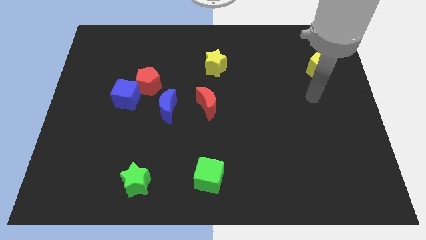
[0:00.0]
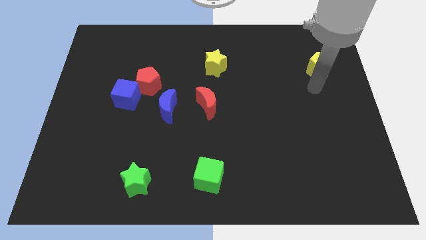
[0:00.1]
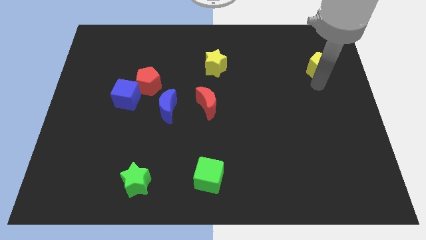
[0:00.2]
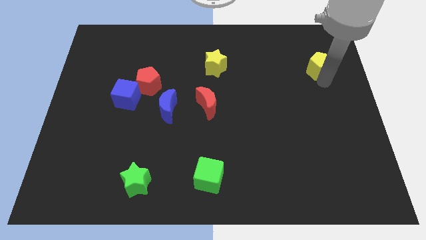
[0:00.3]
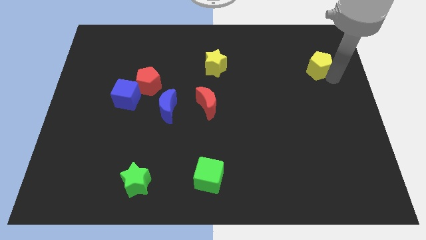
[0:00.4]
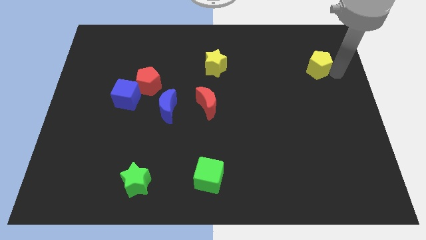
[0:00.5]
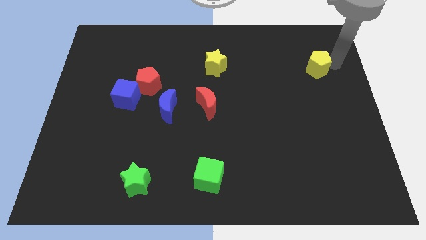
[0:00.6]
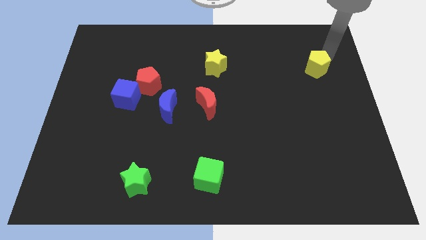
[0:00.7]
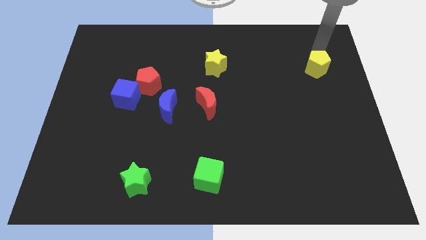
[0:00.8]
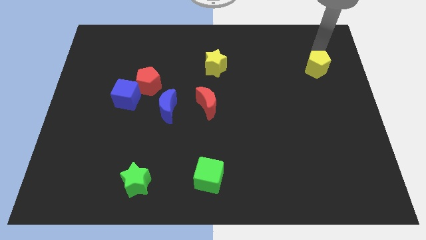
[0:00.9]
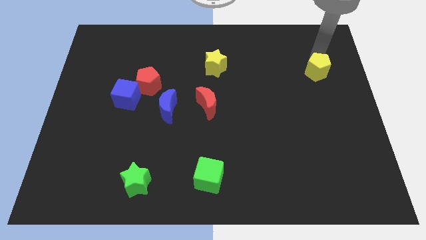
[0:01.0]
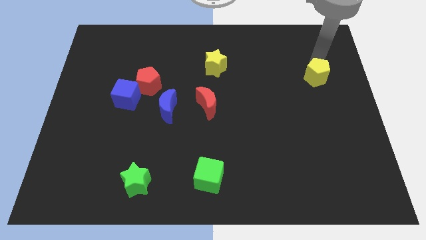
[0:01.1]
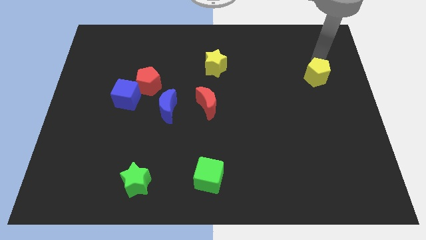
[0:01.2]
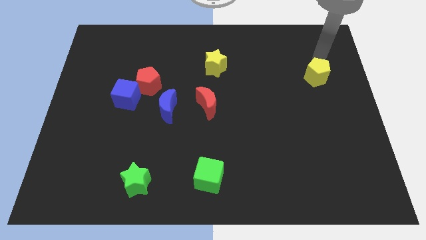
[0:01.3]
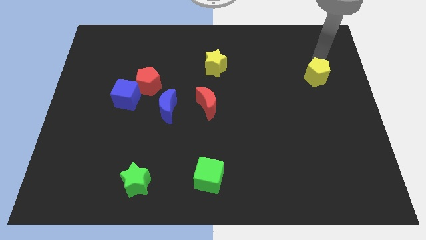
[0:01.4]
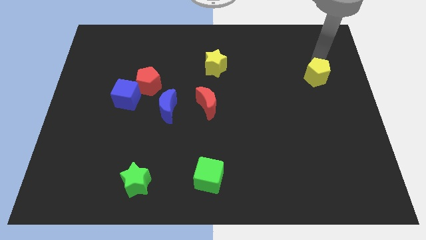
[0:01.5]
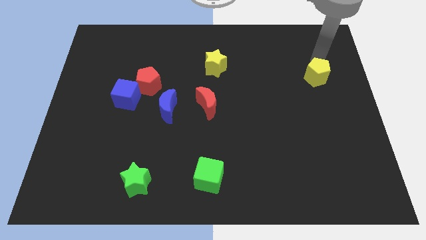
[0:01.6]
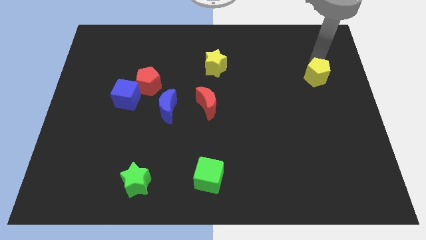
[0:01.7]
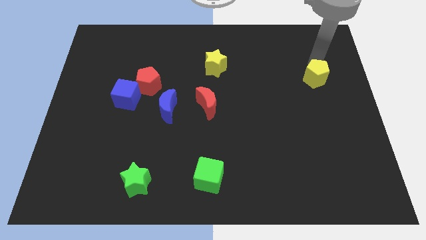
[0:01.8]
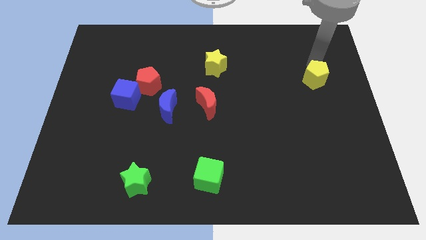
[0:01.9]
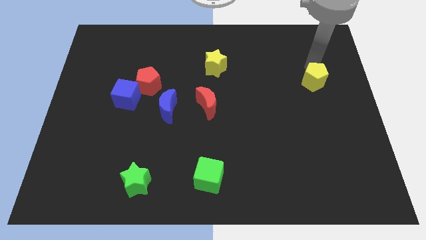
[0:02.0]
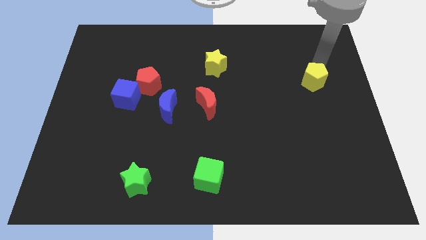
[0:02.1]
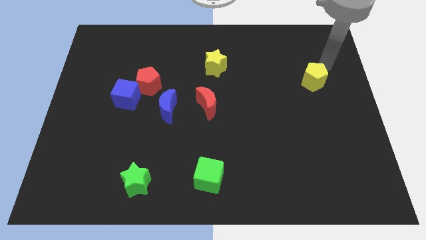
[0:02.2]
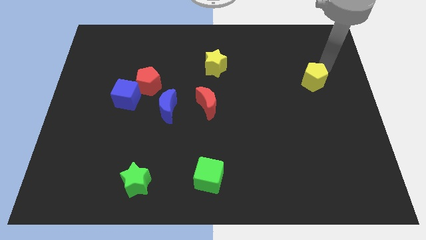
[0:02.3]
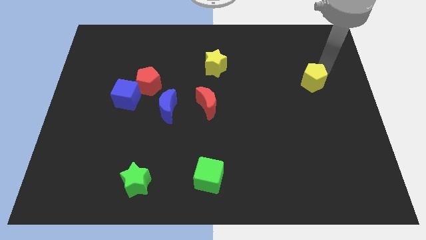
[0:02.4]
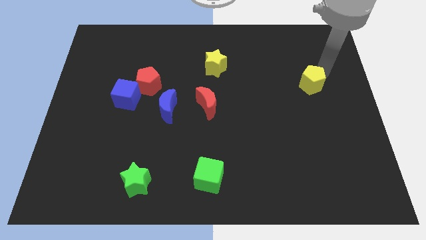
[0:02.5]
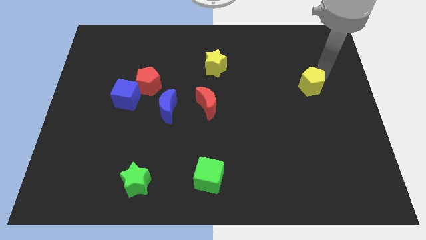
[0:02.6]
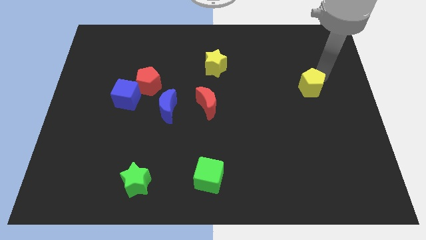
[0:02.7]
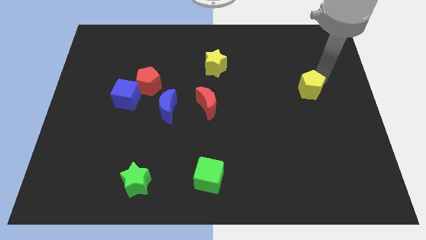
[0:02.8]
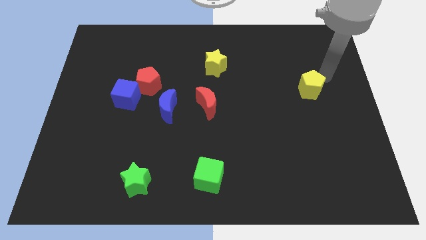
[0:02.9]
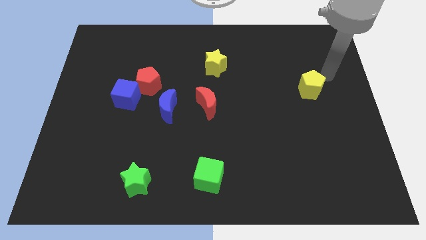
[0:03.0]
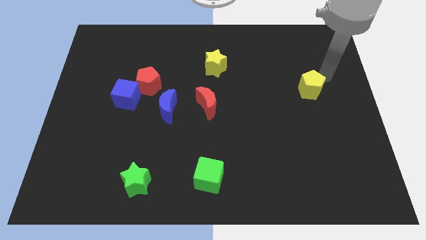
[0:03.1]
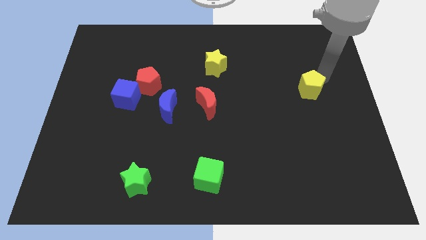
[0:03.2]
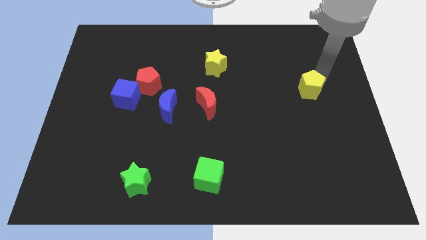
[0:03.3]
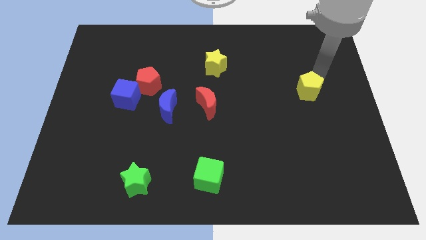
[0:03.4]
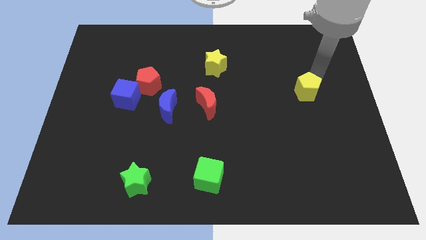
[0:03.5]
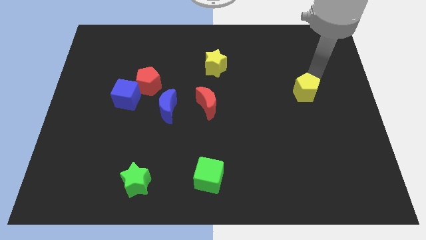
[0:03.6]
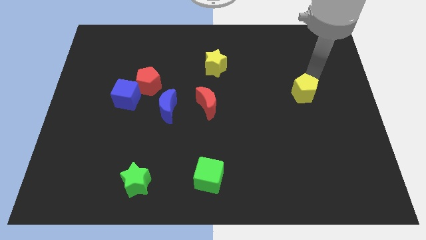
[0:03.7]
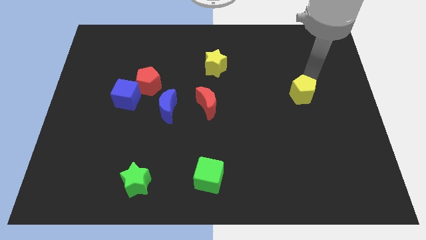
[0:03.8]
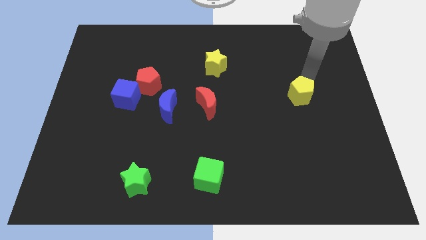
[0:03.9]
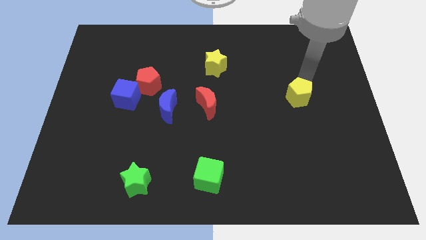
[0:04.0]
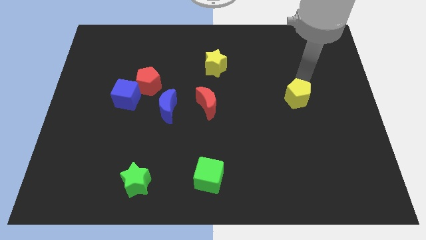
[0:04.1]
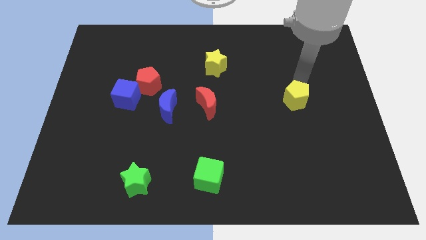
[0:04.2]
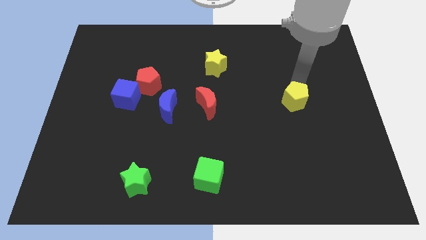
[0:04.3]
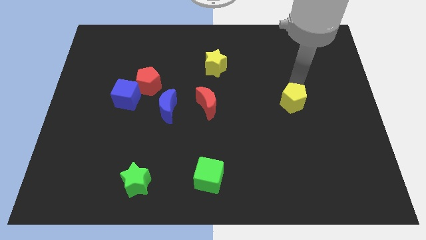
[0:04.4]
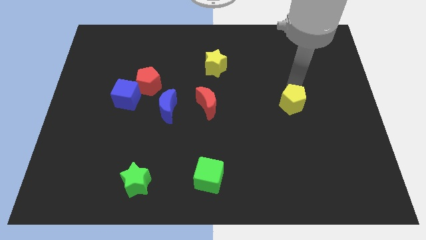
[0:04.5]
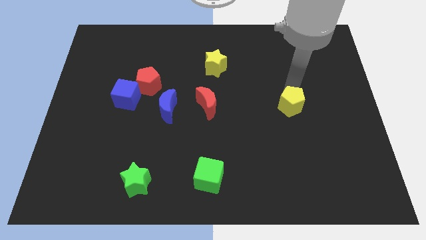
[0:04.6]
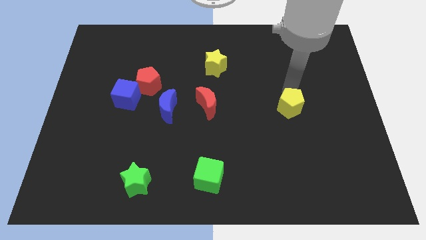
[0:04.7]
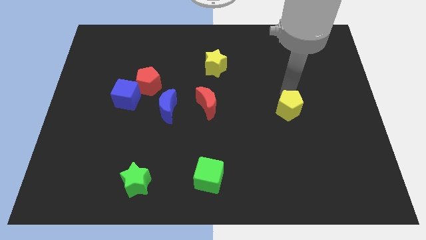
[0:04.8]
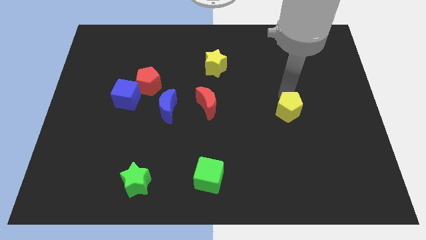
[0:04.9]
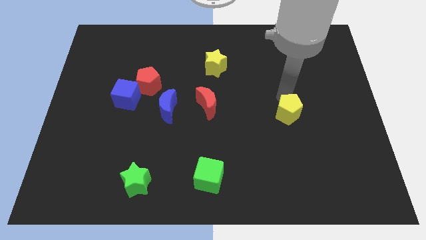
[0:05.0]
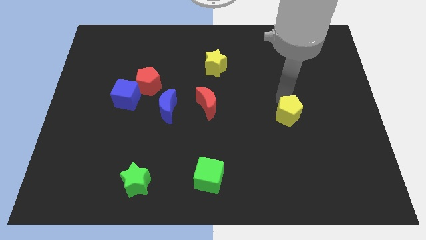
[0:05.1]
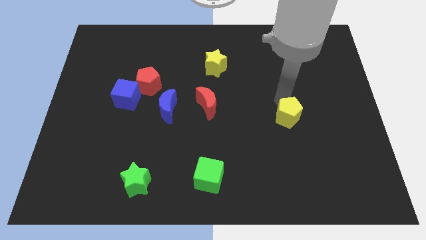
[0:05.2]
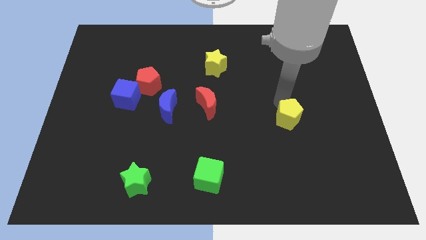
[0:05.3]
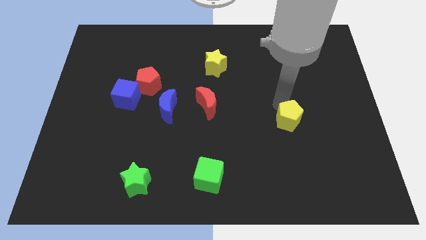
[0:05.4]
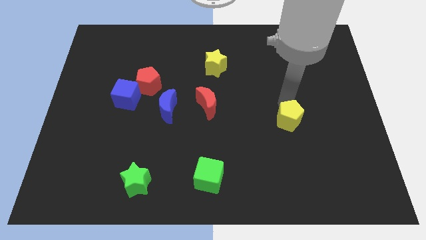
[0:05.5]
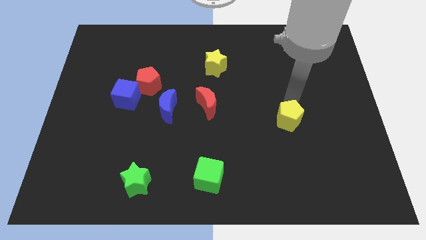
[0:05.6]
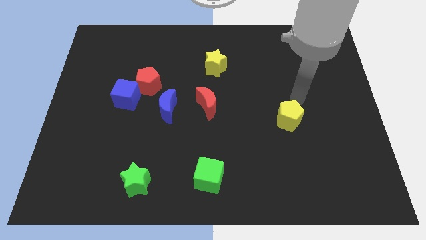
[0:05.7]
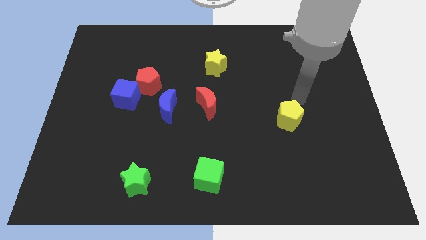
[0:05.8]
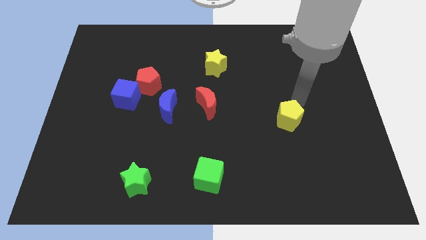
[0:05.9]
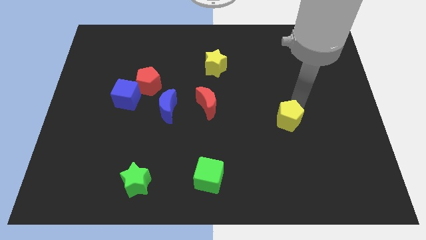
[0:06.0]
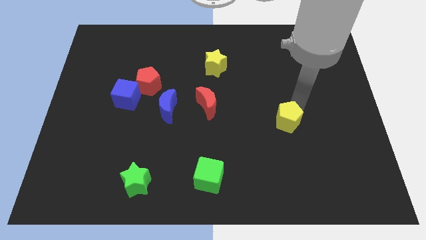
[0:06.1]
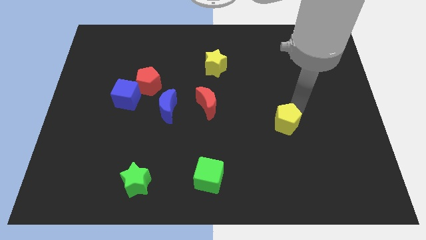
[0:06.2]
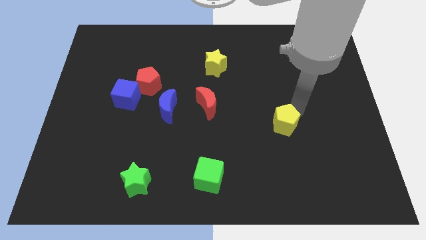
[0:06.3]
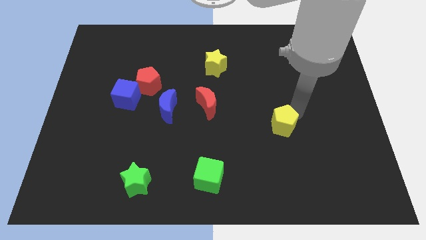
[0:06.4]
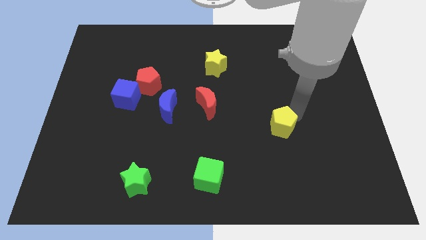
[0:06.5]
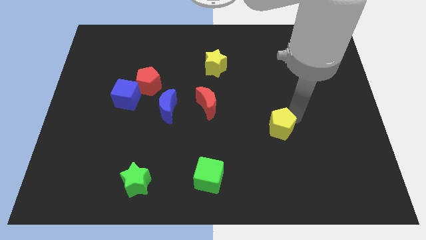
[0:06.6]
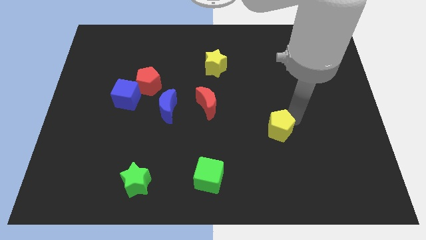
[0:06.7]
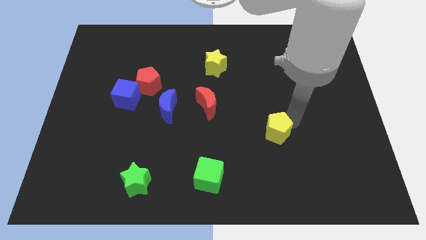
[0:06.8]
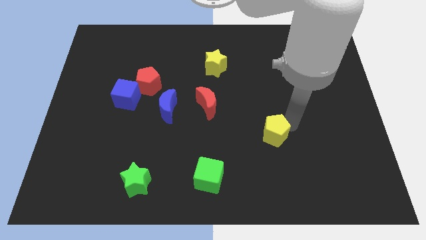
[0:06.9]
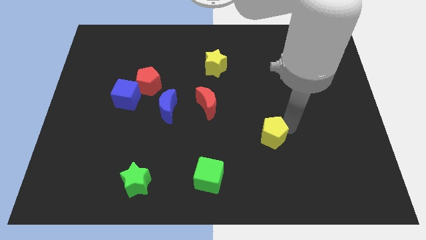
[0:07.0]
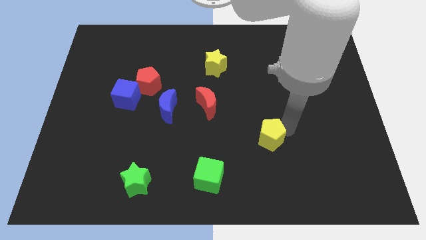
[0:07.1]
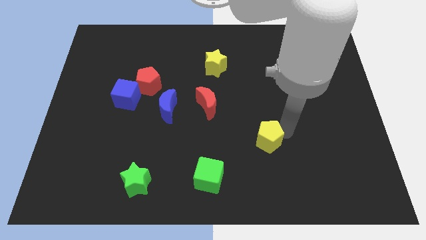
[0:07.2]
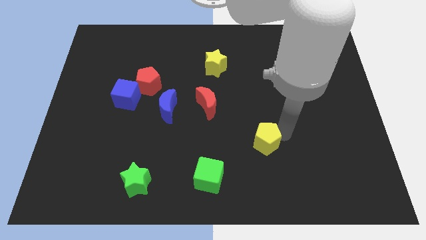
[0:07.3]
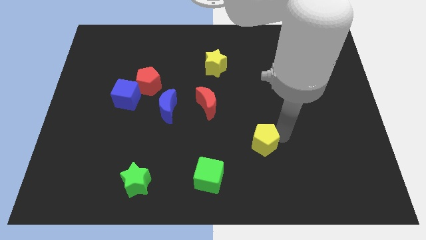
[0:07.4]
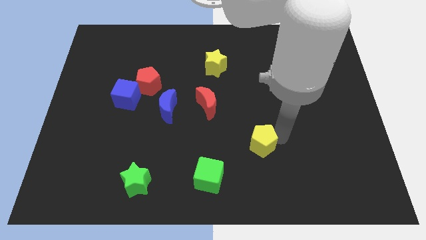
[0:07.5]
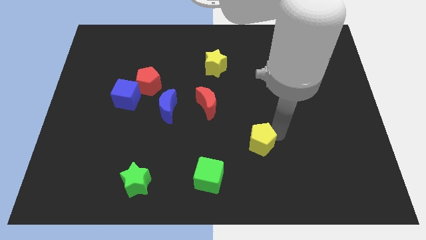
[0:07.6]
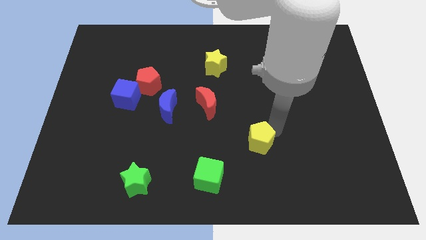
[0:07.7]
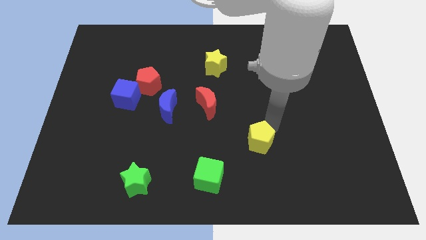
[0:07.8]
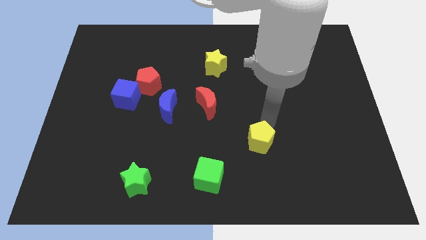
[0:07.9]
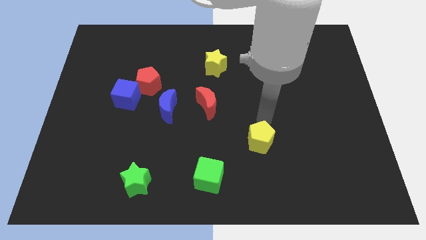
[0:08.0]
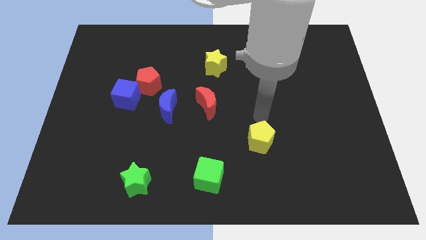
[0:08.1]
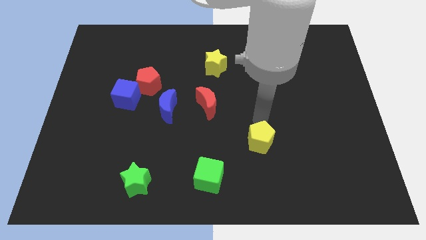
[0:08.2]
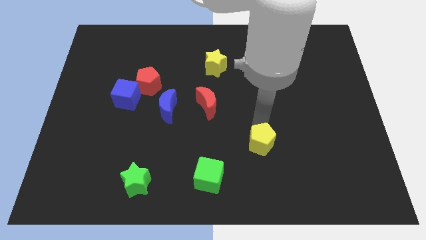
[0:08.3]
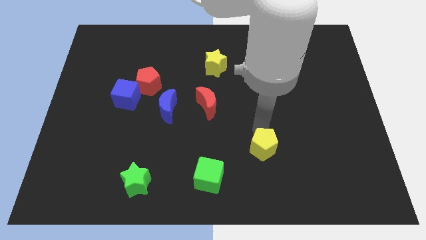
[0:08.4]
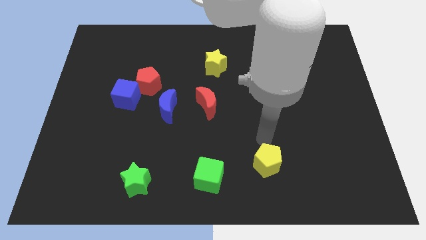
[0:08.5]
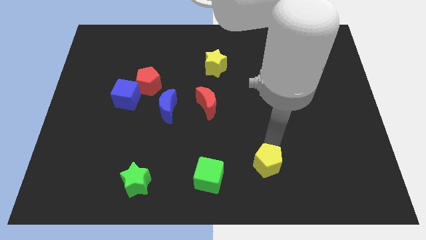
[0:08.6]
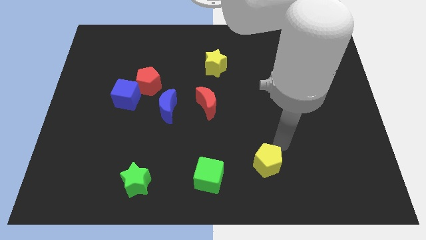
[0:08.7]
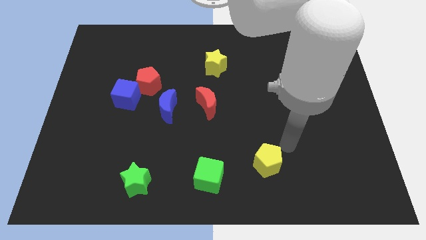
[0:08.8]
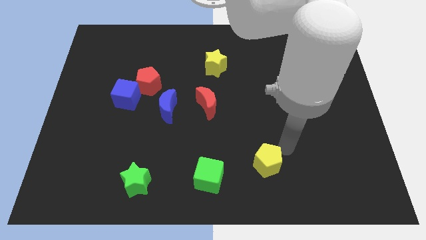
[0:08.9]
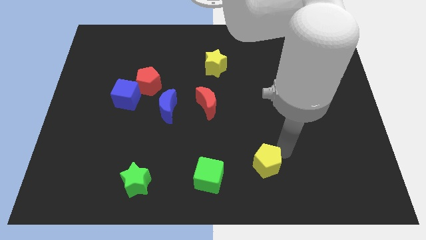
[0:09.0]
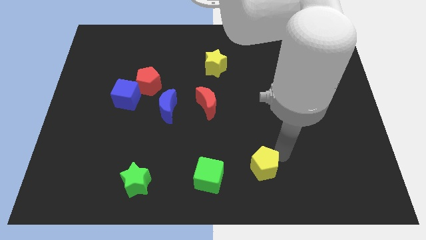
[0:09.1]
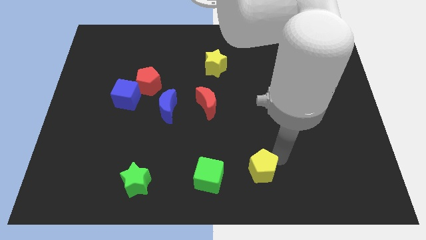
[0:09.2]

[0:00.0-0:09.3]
slide the yellow pentagon to the bottom
